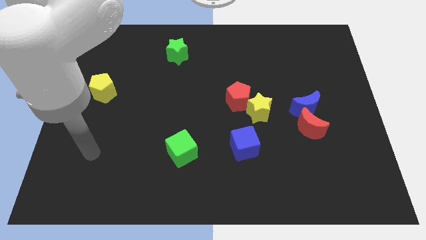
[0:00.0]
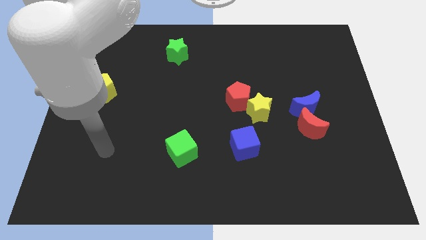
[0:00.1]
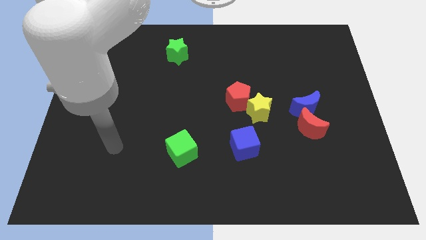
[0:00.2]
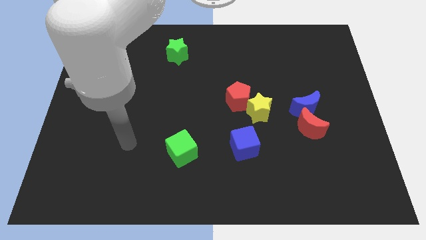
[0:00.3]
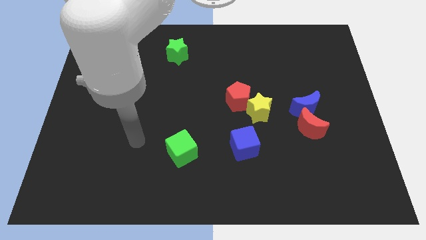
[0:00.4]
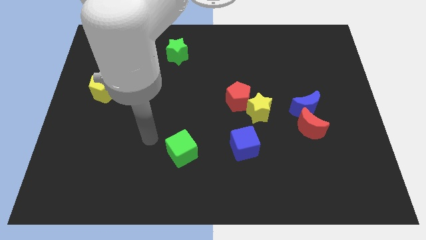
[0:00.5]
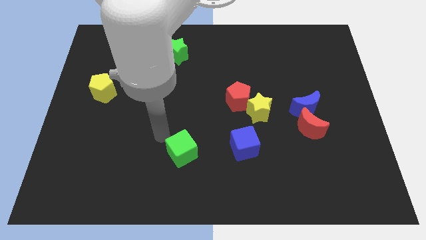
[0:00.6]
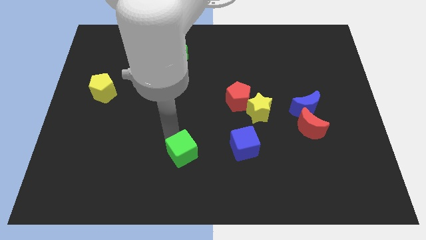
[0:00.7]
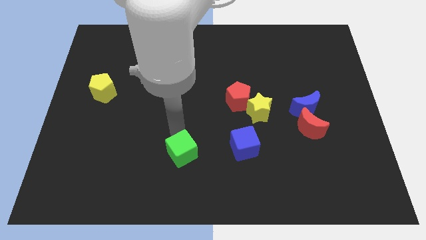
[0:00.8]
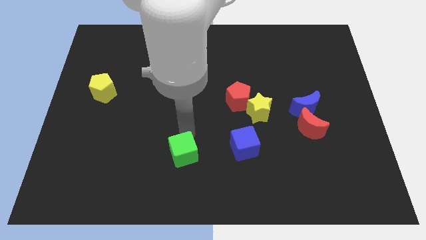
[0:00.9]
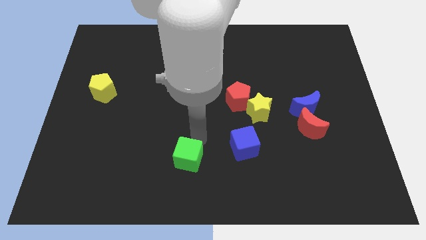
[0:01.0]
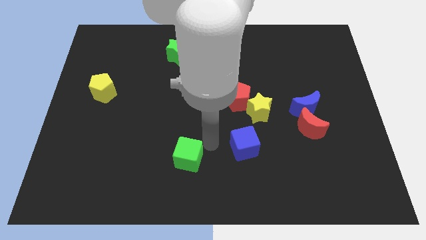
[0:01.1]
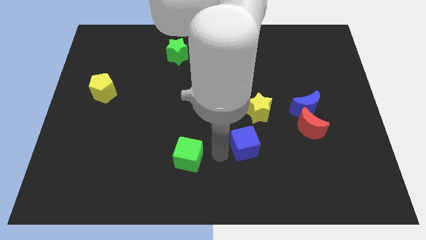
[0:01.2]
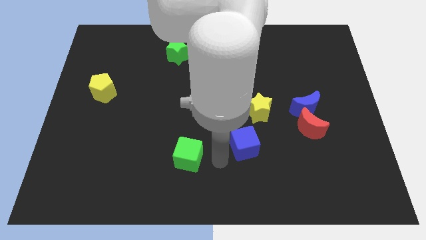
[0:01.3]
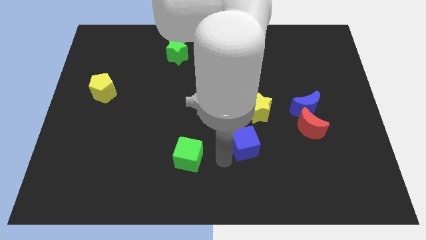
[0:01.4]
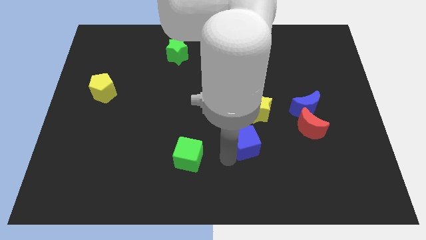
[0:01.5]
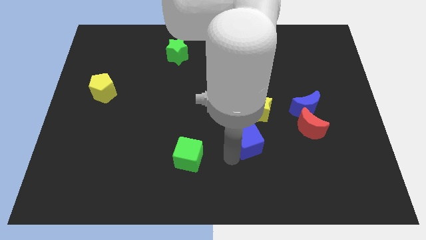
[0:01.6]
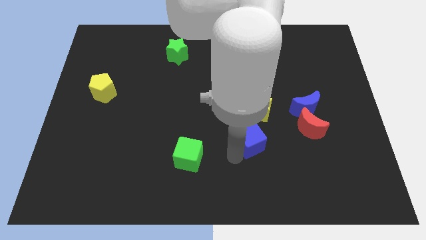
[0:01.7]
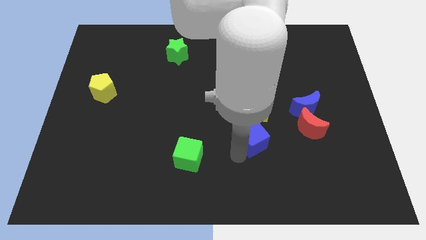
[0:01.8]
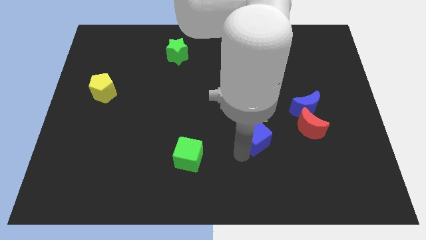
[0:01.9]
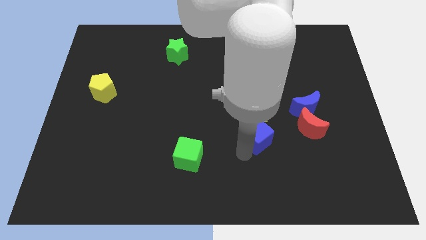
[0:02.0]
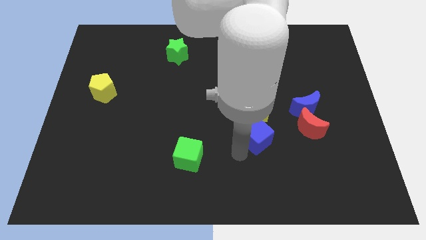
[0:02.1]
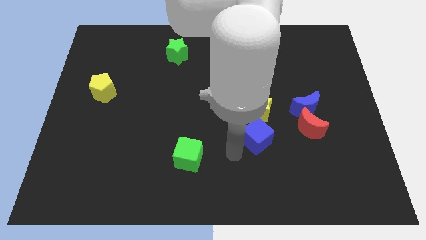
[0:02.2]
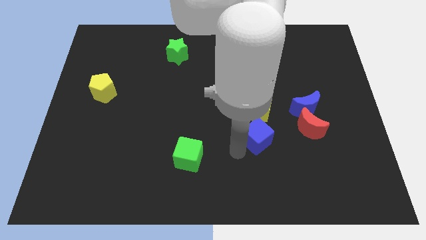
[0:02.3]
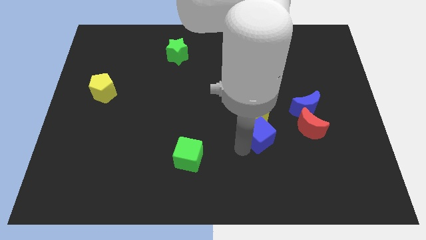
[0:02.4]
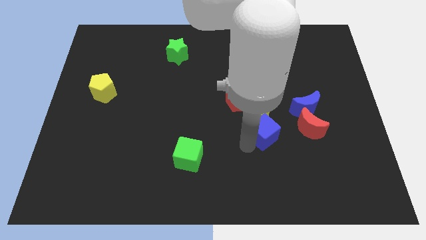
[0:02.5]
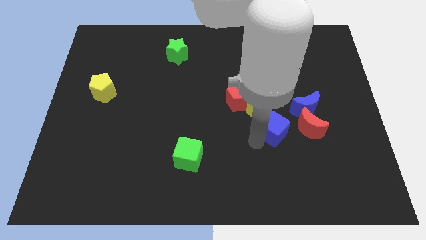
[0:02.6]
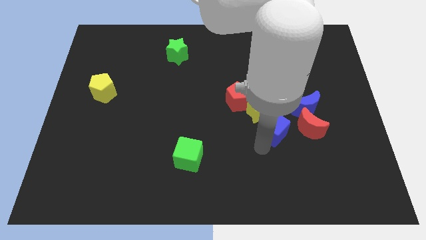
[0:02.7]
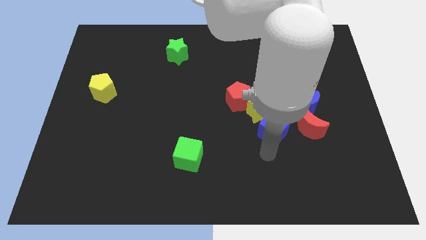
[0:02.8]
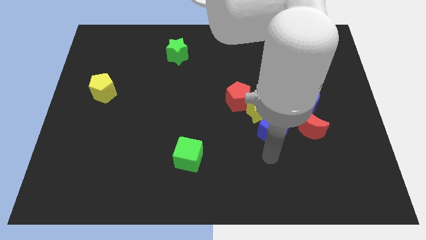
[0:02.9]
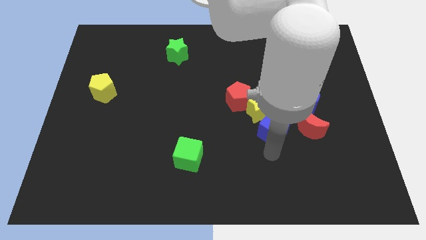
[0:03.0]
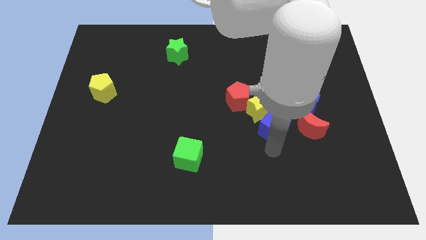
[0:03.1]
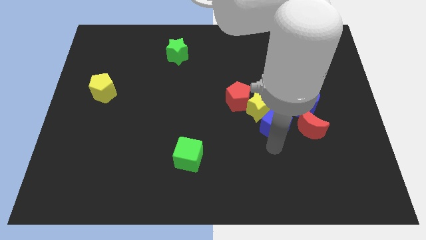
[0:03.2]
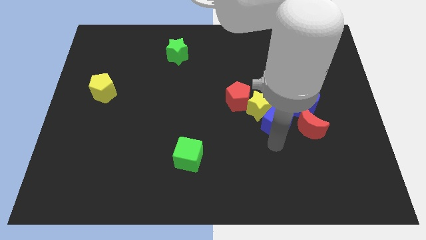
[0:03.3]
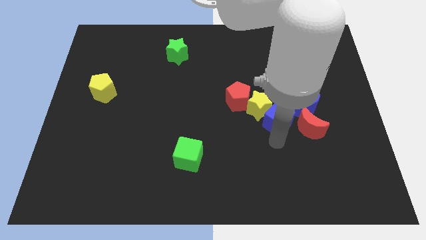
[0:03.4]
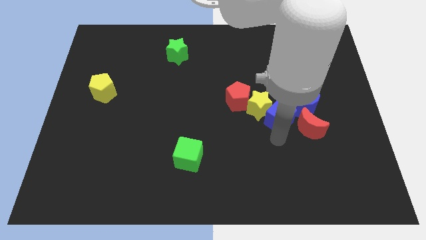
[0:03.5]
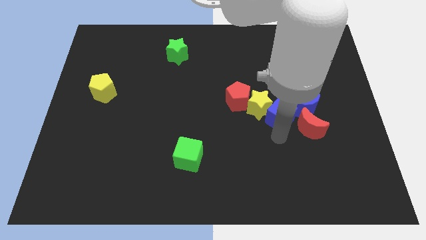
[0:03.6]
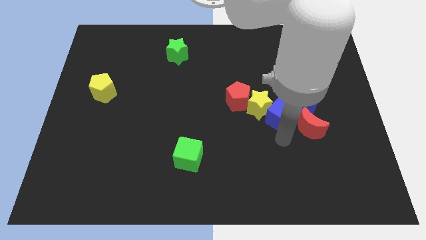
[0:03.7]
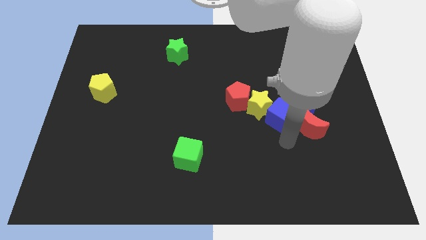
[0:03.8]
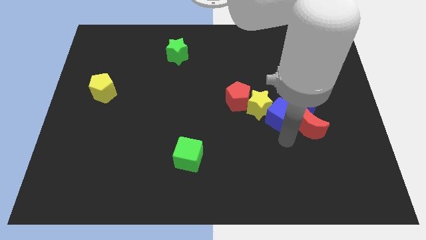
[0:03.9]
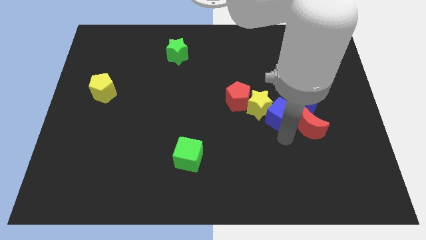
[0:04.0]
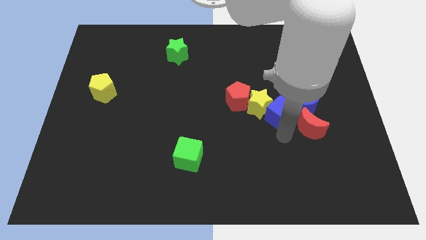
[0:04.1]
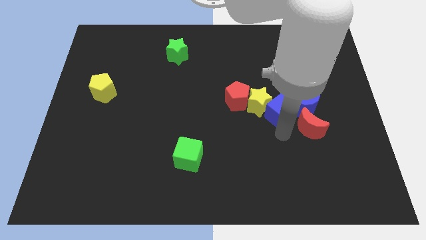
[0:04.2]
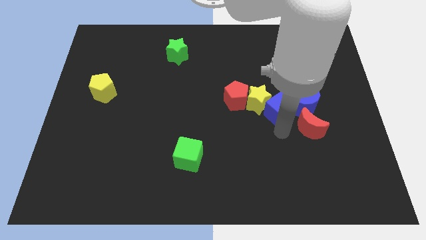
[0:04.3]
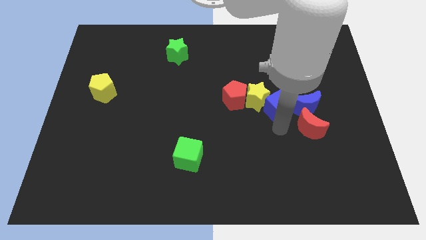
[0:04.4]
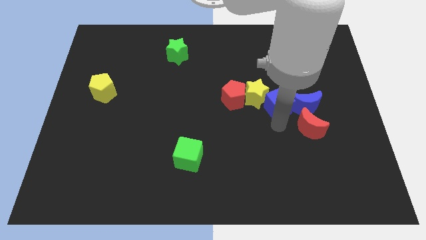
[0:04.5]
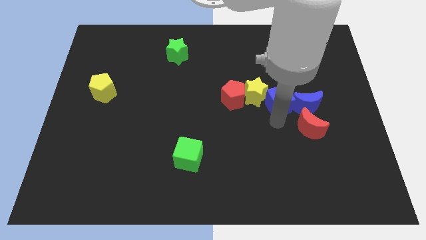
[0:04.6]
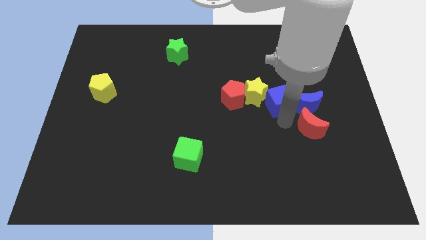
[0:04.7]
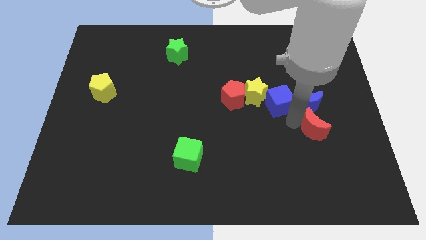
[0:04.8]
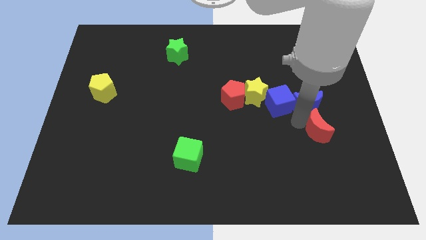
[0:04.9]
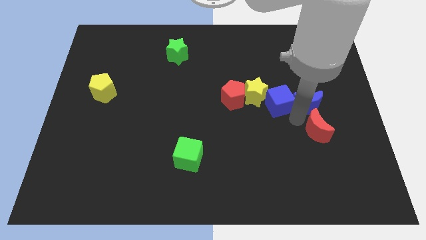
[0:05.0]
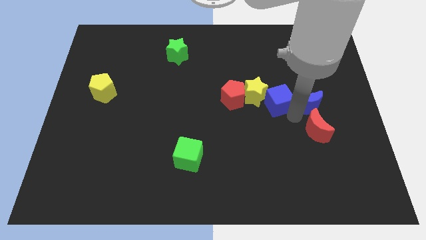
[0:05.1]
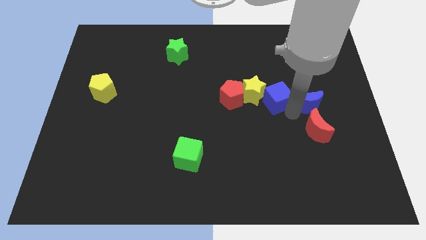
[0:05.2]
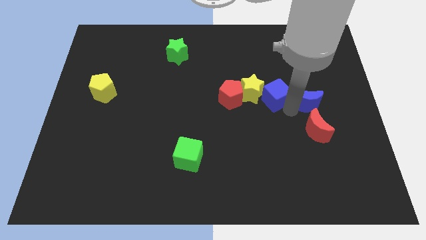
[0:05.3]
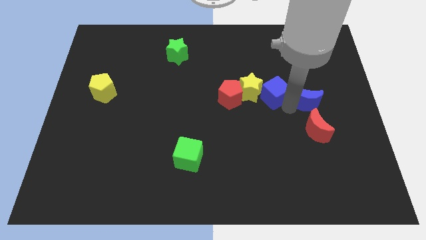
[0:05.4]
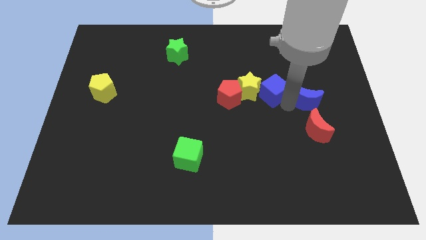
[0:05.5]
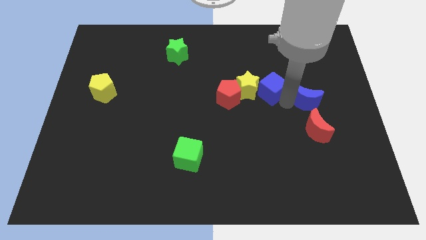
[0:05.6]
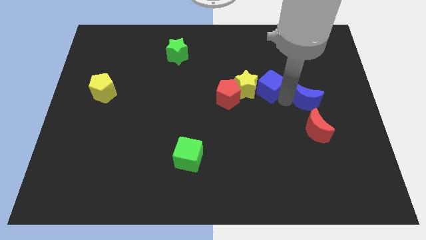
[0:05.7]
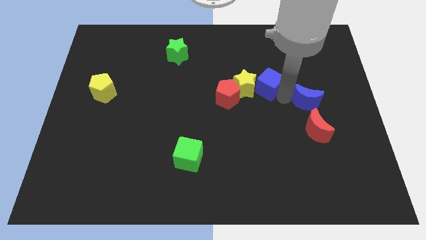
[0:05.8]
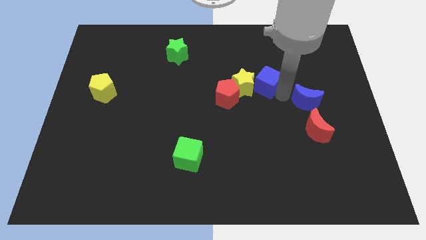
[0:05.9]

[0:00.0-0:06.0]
put the blue cube diagonally up and to the right of the red pentagon

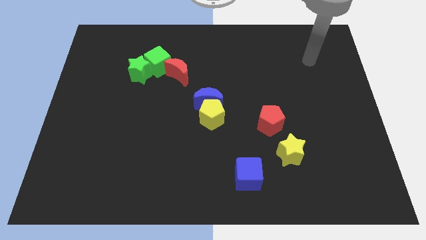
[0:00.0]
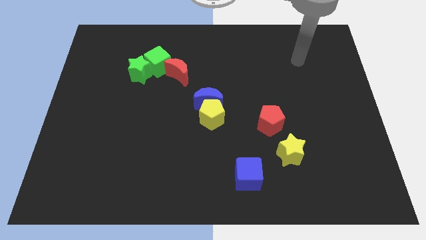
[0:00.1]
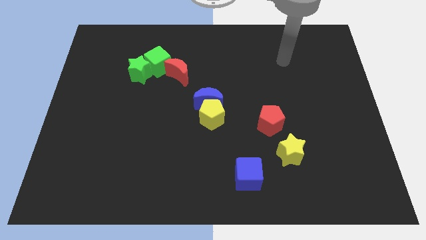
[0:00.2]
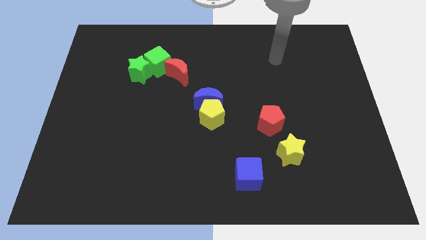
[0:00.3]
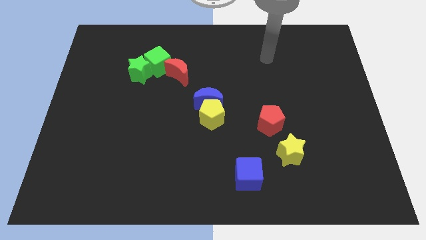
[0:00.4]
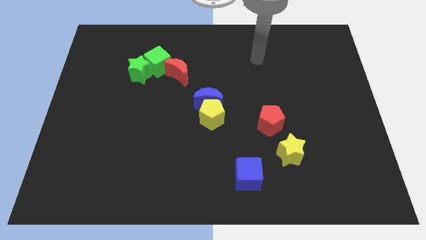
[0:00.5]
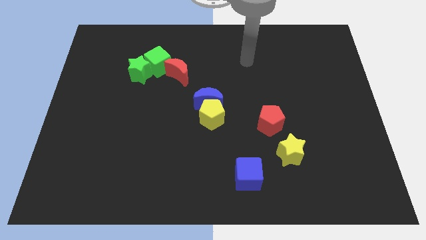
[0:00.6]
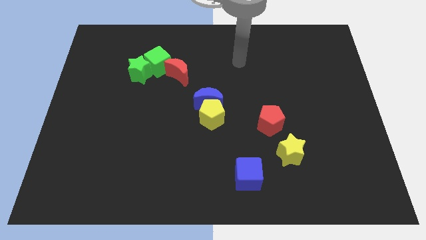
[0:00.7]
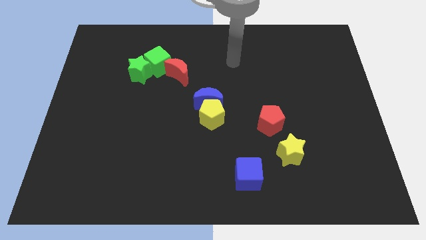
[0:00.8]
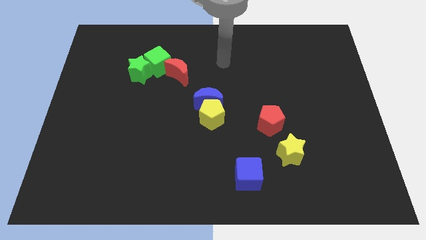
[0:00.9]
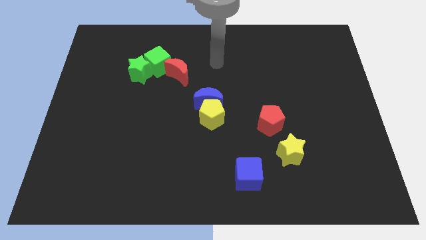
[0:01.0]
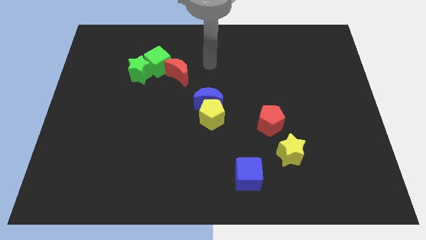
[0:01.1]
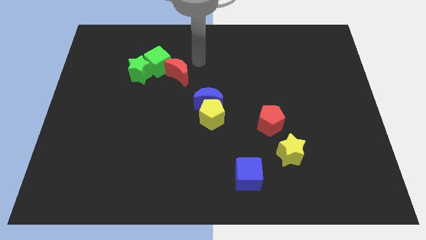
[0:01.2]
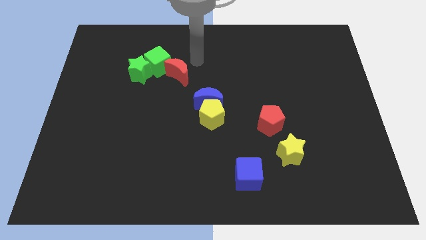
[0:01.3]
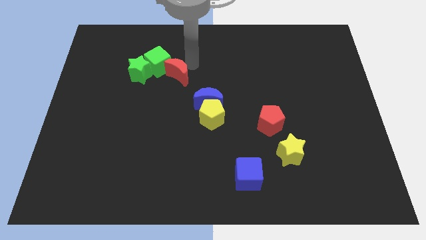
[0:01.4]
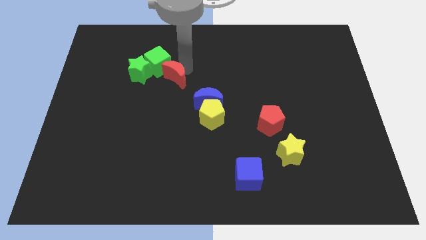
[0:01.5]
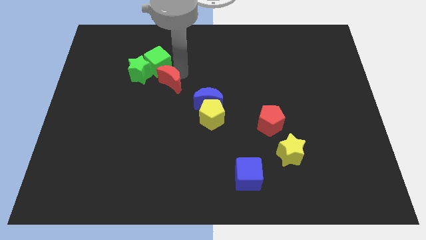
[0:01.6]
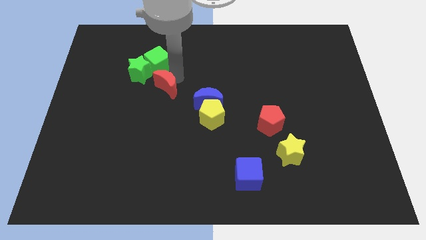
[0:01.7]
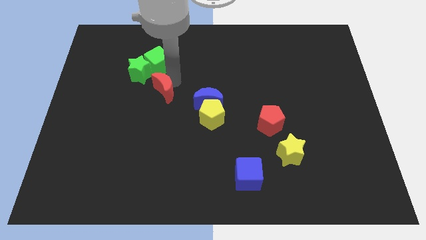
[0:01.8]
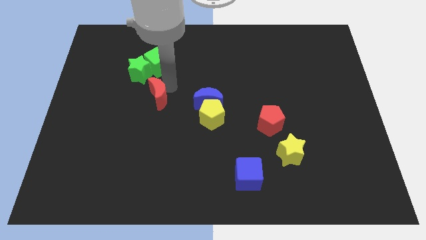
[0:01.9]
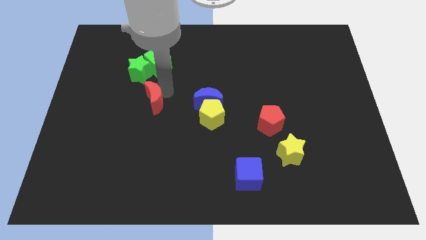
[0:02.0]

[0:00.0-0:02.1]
slide the red moon to the bottom of the green star
